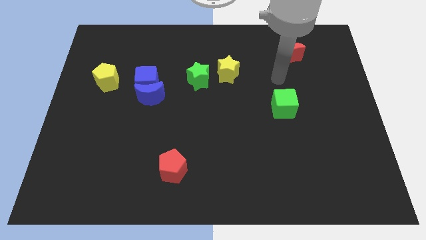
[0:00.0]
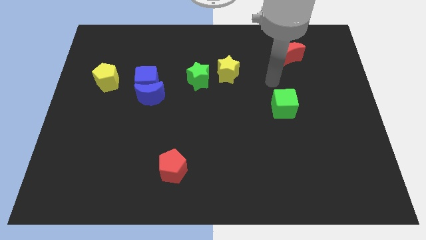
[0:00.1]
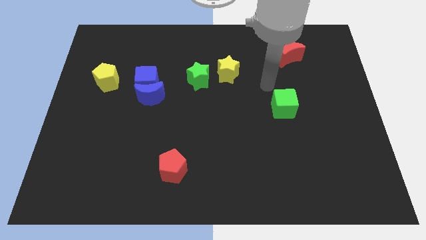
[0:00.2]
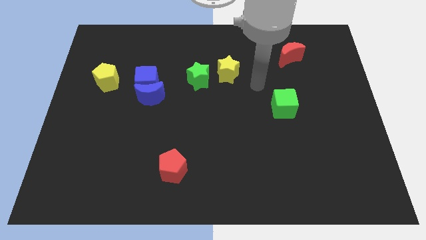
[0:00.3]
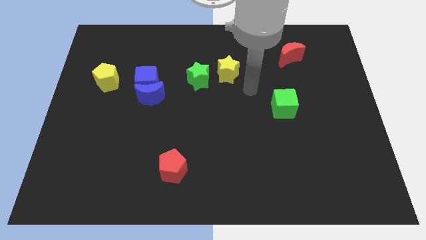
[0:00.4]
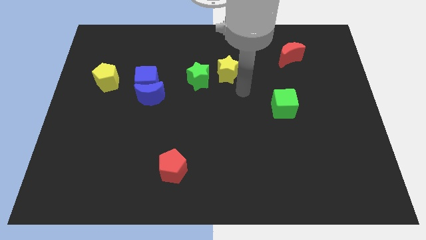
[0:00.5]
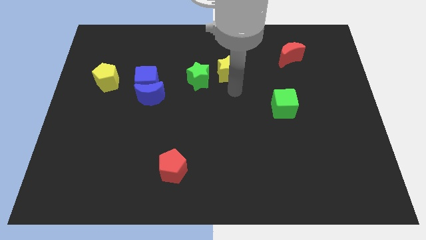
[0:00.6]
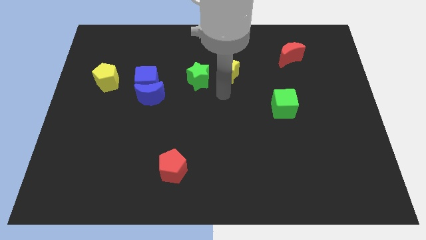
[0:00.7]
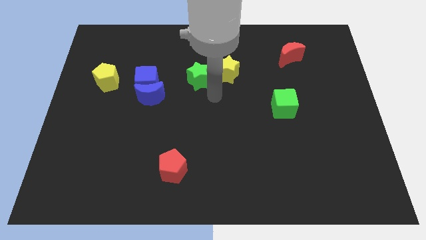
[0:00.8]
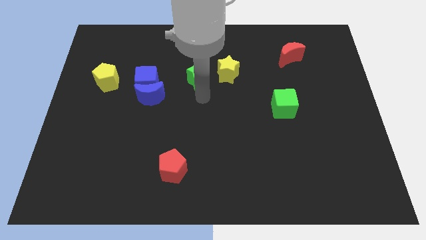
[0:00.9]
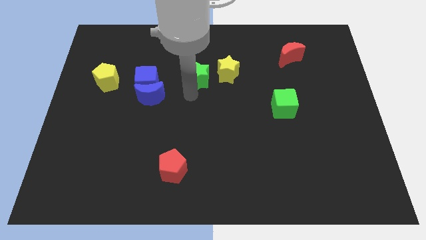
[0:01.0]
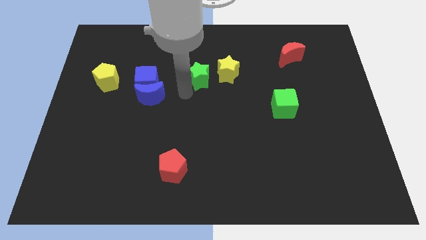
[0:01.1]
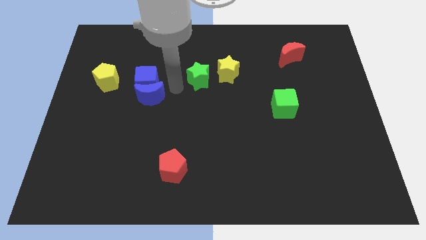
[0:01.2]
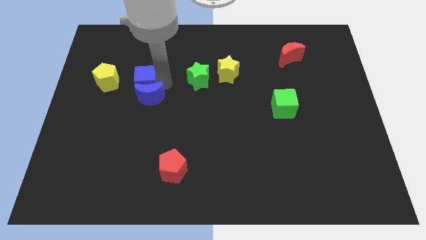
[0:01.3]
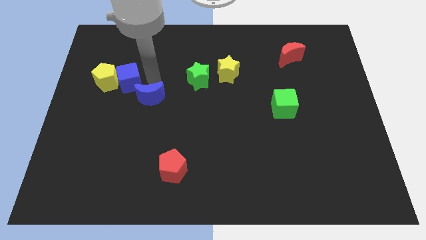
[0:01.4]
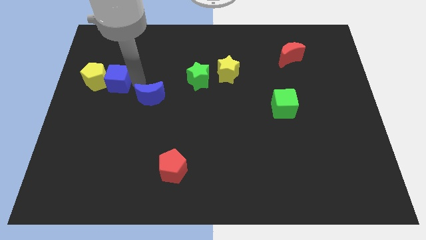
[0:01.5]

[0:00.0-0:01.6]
pull the blue moon apart from the blue cube

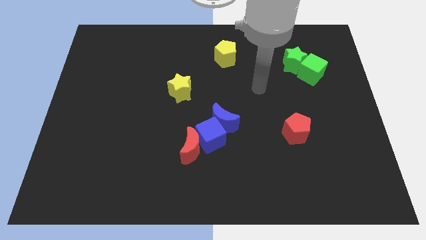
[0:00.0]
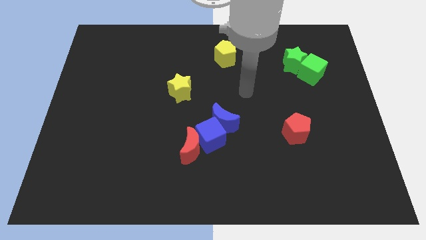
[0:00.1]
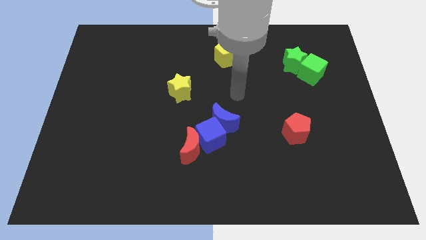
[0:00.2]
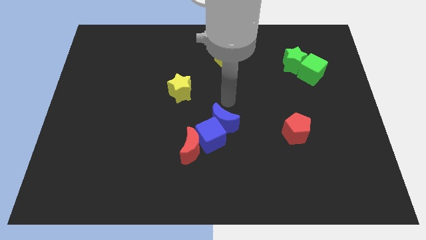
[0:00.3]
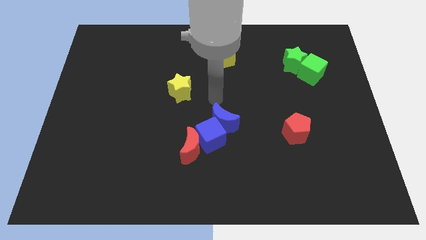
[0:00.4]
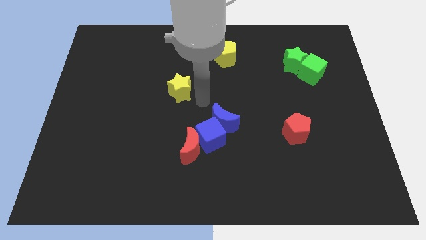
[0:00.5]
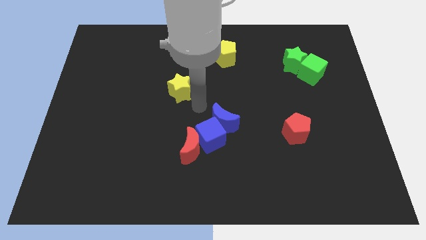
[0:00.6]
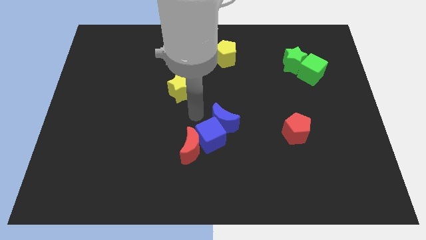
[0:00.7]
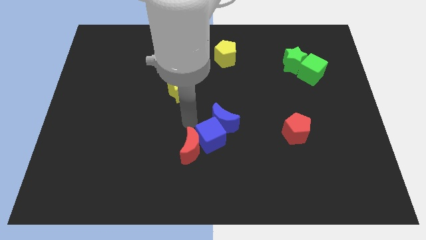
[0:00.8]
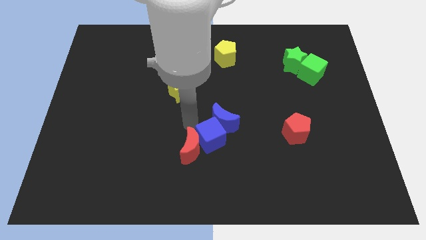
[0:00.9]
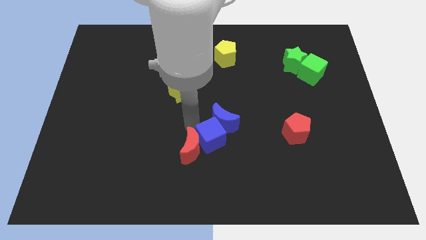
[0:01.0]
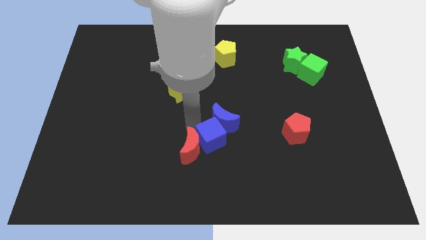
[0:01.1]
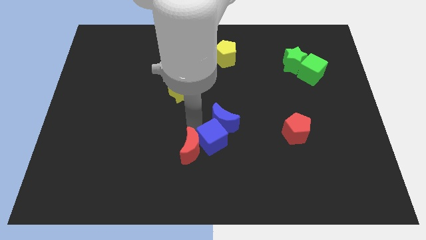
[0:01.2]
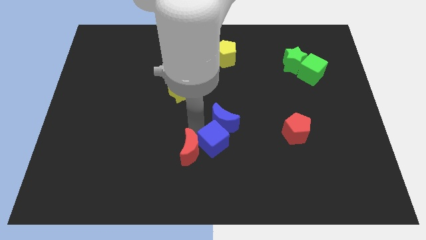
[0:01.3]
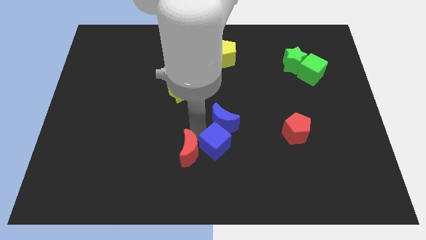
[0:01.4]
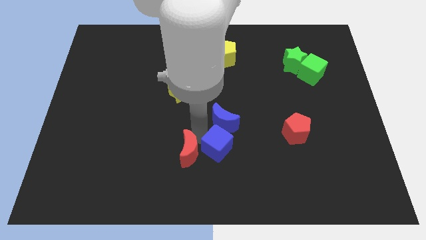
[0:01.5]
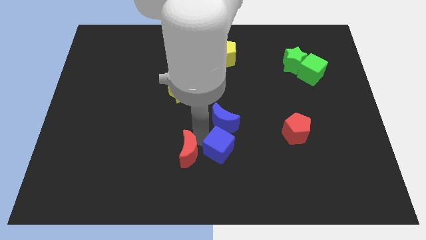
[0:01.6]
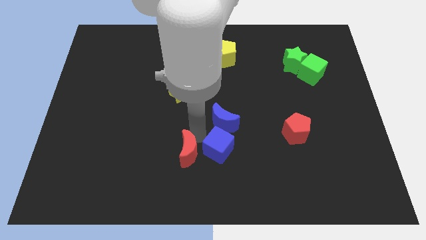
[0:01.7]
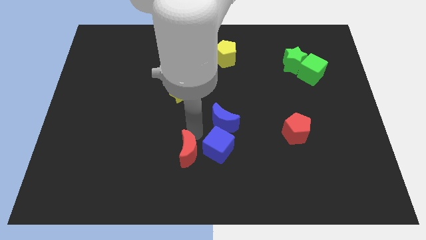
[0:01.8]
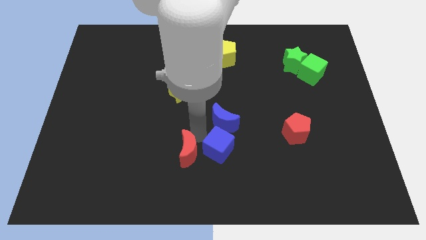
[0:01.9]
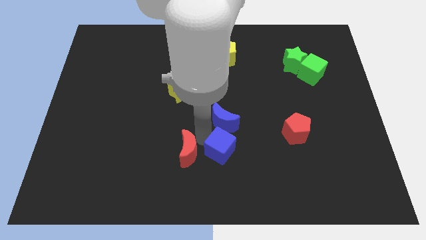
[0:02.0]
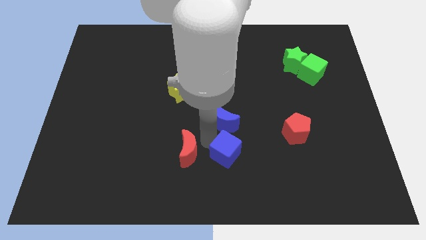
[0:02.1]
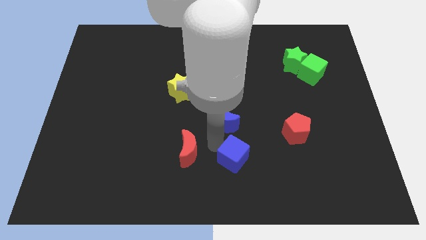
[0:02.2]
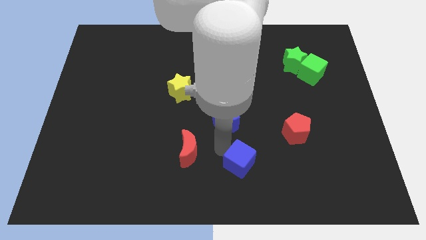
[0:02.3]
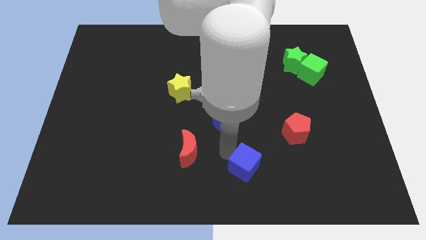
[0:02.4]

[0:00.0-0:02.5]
move the blue cube away from the red moon and blue moon

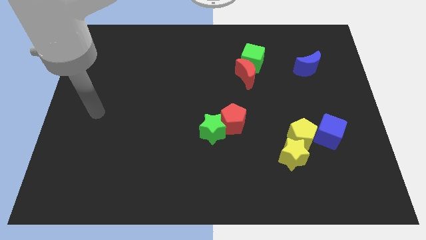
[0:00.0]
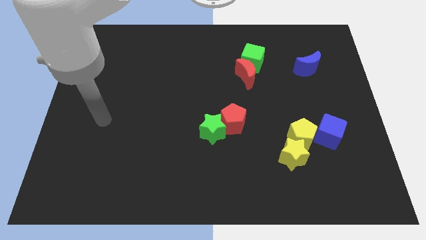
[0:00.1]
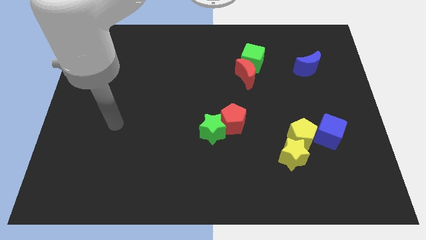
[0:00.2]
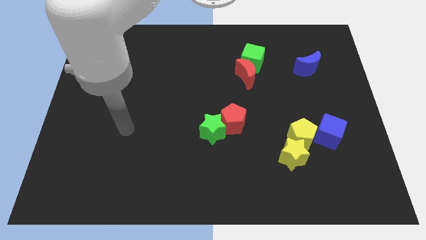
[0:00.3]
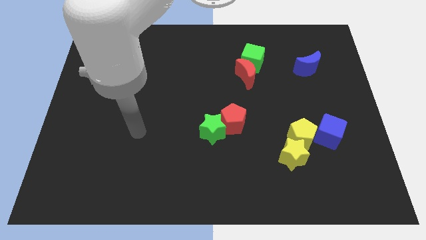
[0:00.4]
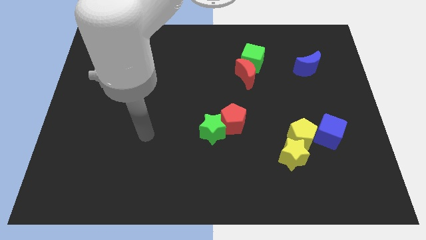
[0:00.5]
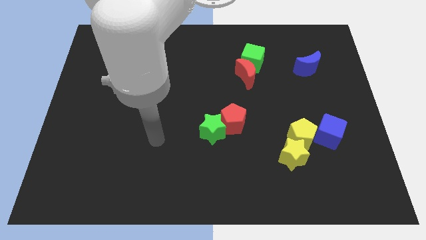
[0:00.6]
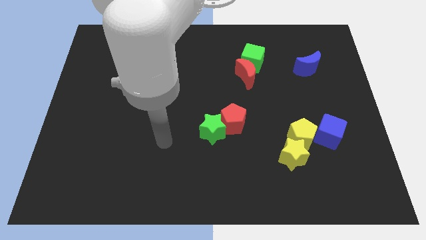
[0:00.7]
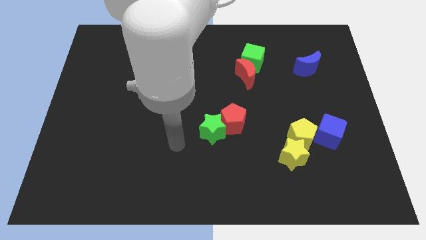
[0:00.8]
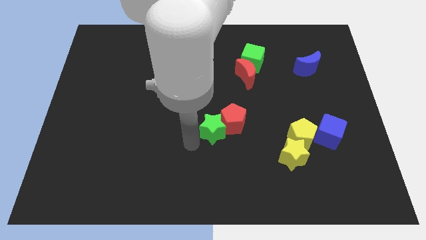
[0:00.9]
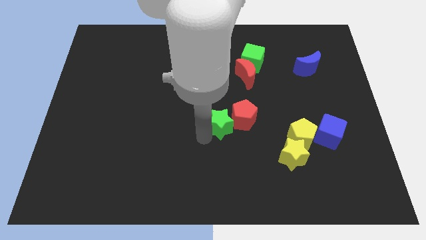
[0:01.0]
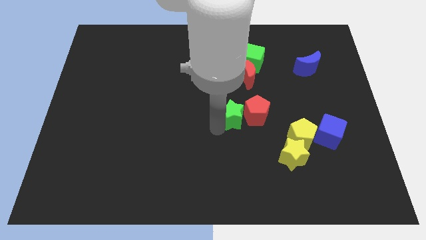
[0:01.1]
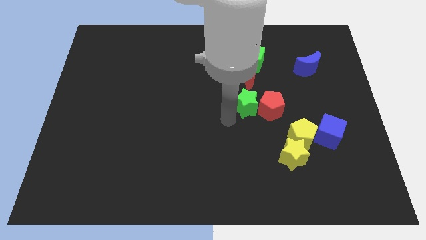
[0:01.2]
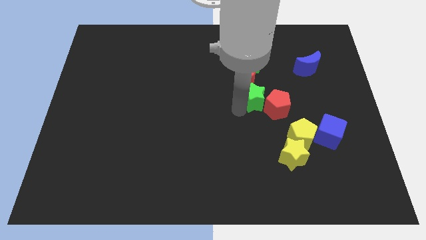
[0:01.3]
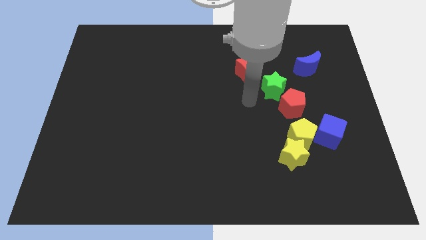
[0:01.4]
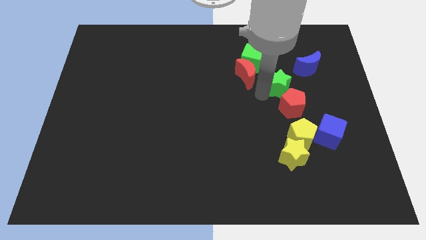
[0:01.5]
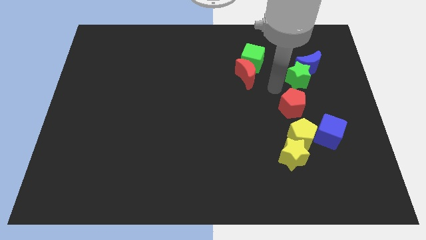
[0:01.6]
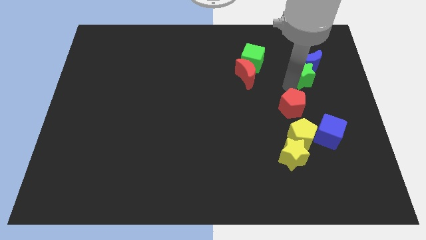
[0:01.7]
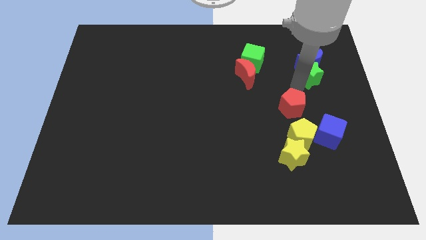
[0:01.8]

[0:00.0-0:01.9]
separate the red pentagon from the green star

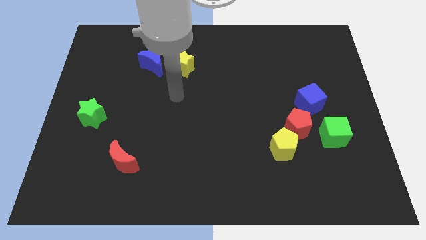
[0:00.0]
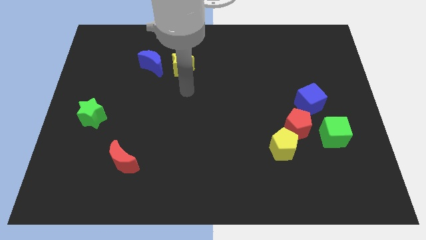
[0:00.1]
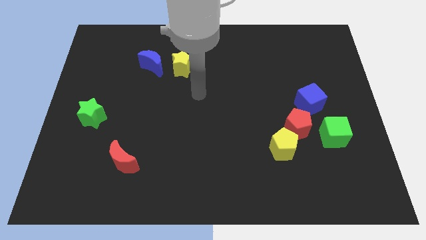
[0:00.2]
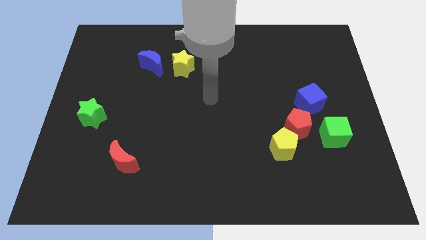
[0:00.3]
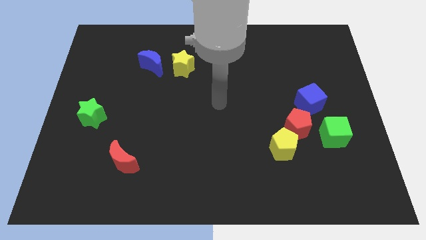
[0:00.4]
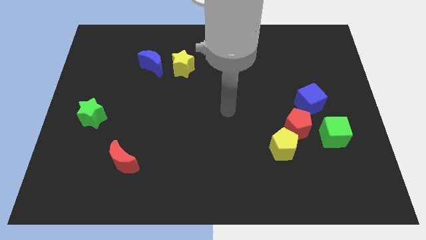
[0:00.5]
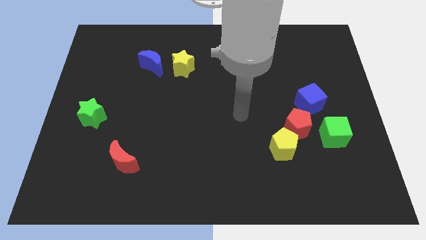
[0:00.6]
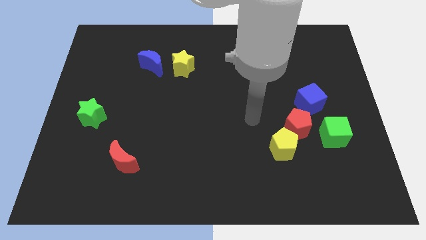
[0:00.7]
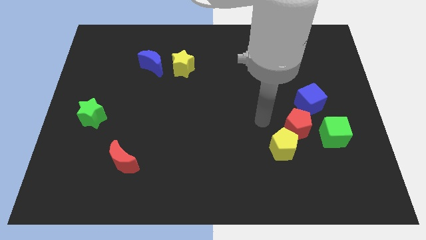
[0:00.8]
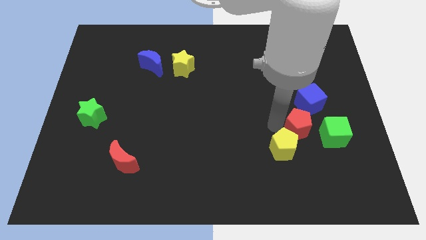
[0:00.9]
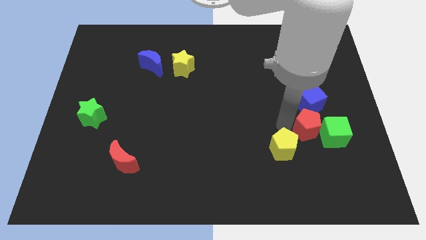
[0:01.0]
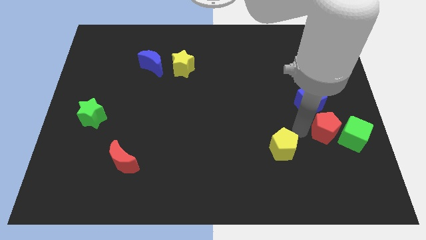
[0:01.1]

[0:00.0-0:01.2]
move the yellow pentagon away from the red pentagon

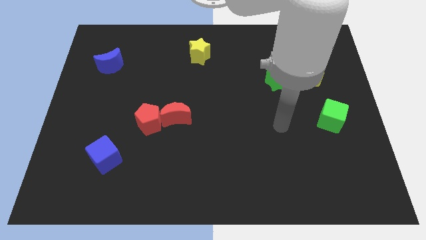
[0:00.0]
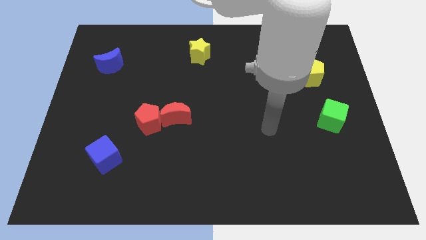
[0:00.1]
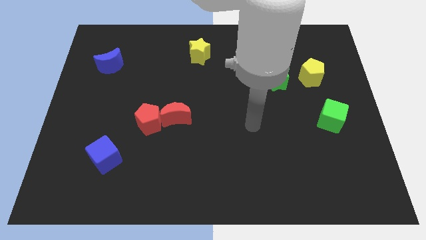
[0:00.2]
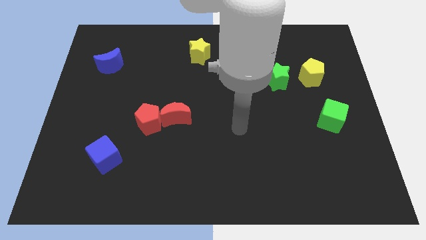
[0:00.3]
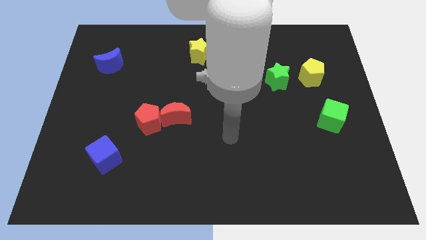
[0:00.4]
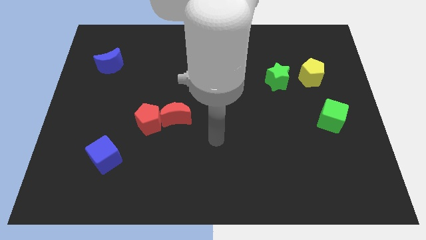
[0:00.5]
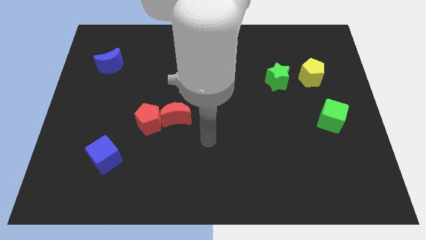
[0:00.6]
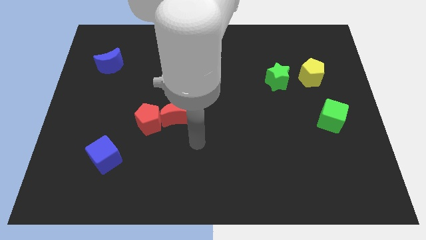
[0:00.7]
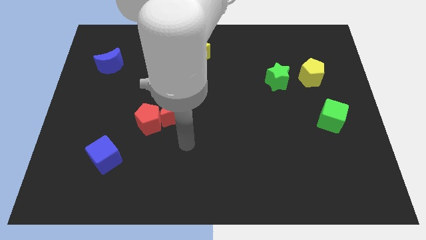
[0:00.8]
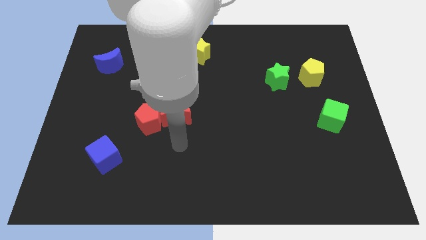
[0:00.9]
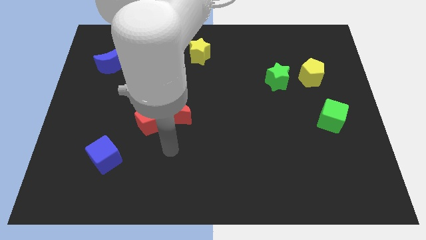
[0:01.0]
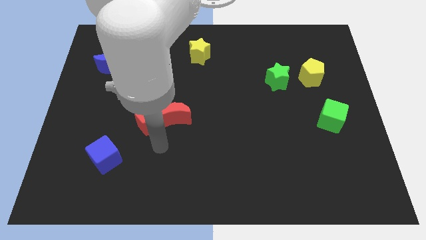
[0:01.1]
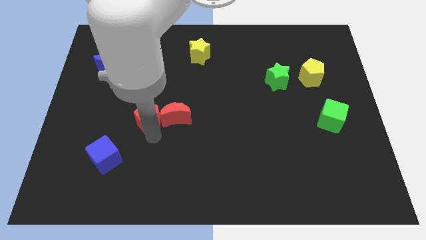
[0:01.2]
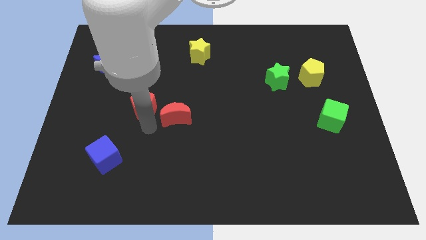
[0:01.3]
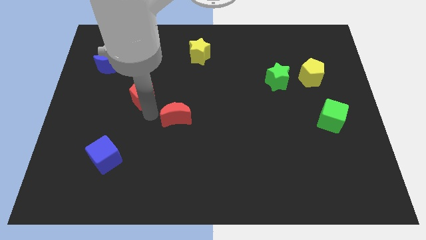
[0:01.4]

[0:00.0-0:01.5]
move the red moon away from the red pentagon

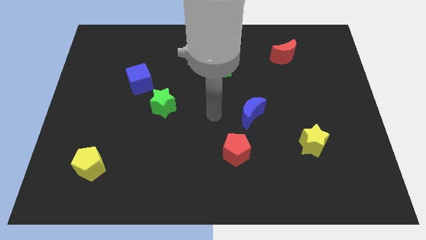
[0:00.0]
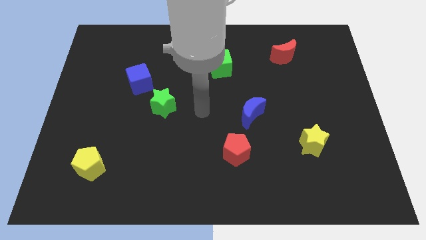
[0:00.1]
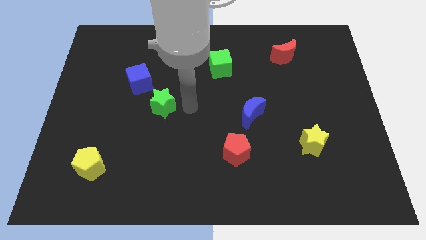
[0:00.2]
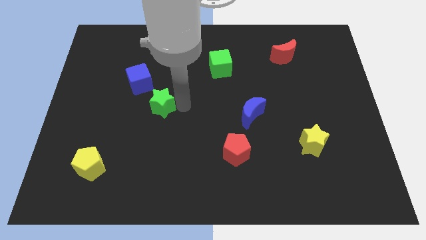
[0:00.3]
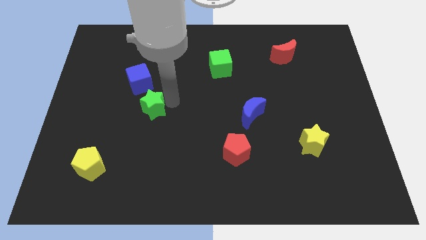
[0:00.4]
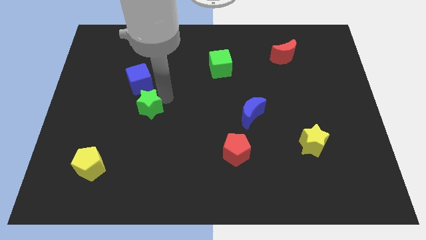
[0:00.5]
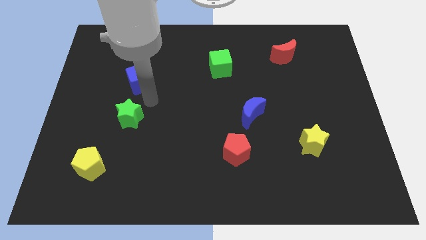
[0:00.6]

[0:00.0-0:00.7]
move the blue cube away from the green star
